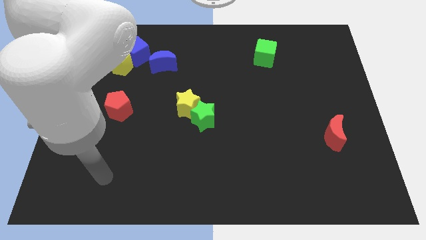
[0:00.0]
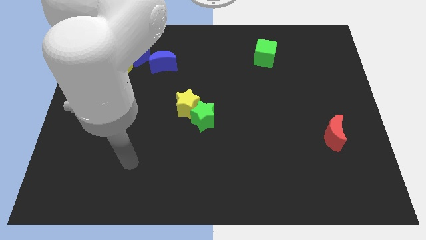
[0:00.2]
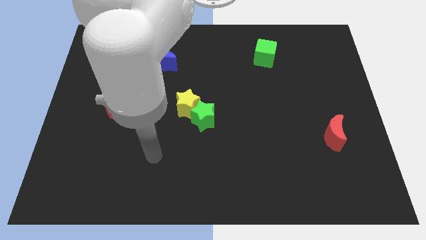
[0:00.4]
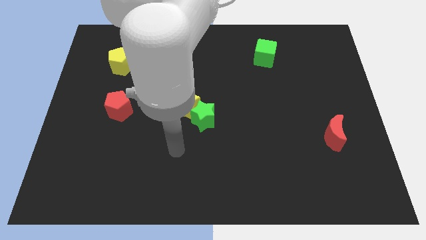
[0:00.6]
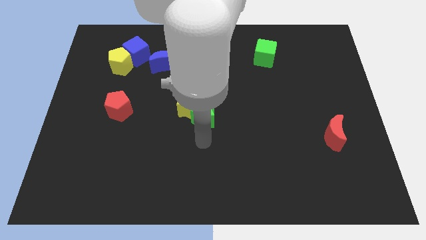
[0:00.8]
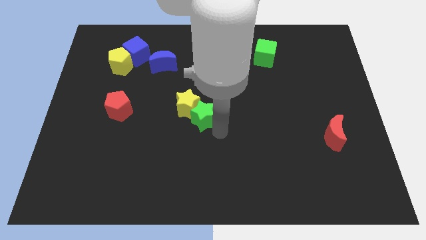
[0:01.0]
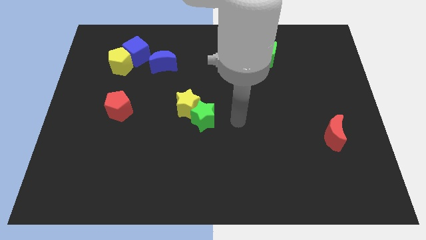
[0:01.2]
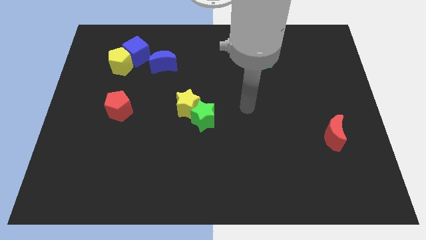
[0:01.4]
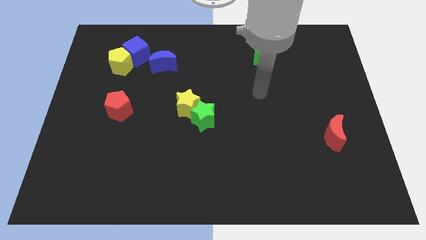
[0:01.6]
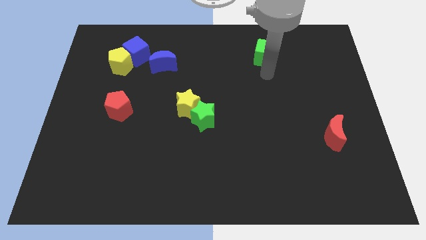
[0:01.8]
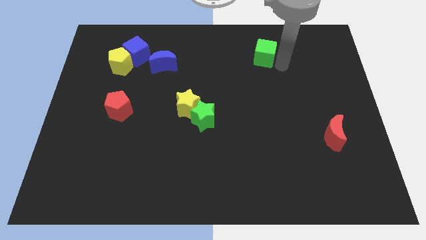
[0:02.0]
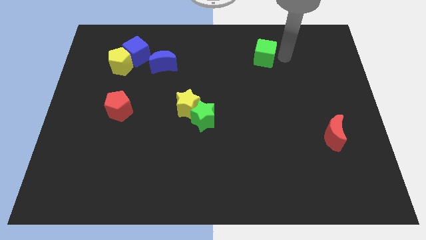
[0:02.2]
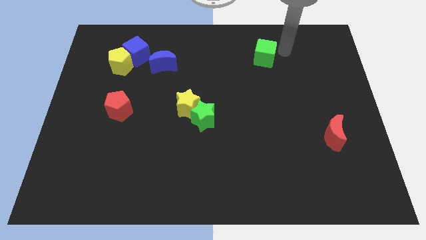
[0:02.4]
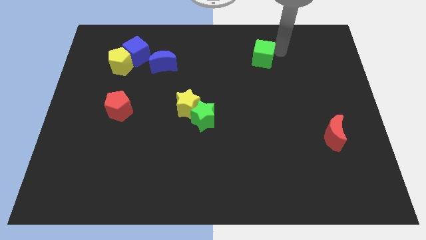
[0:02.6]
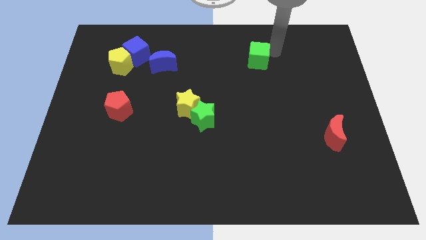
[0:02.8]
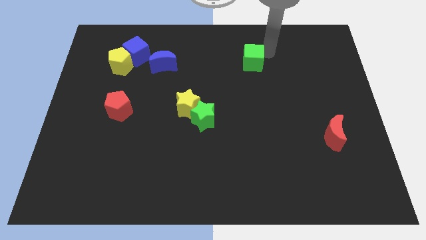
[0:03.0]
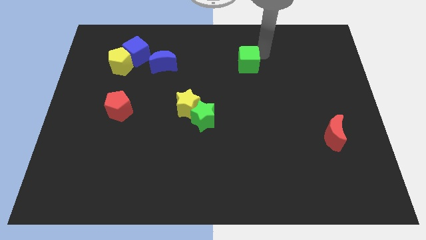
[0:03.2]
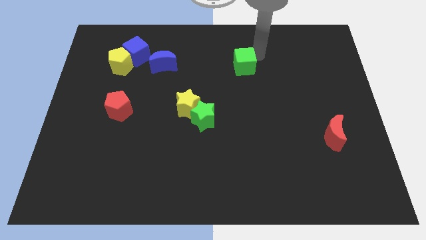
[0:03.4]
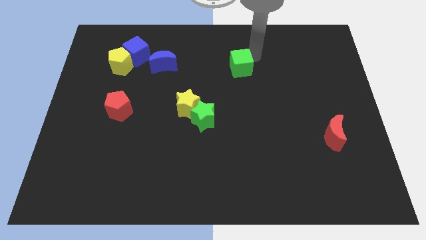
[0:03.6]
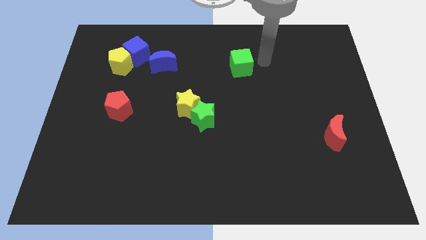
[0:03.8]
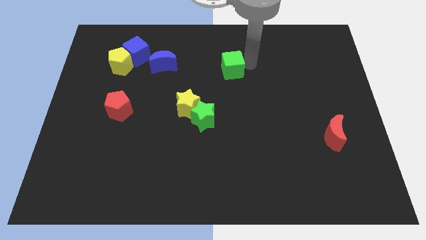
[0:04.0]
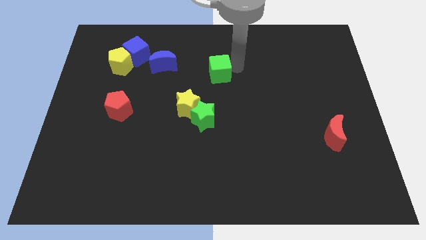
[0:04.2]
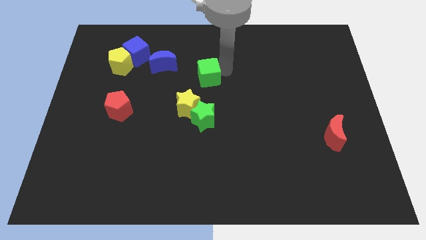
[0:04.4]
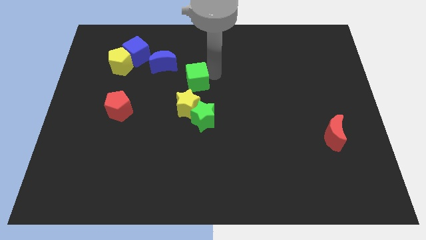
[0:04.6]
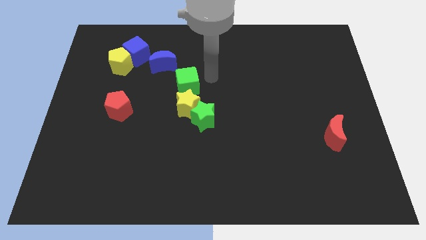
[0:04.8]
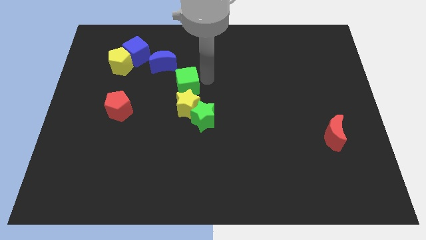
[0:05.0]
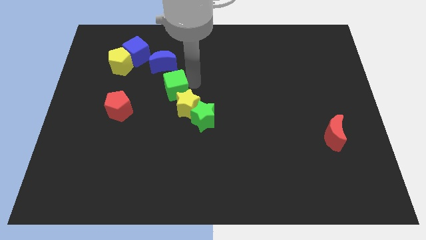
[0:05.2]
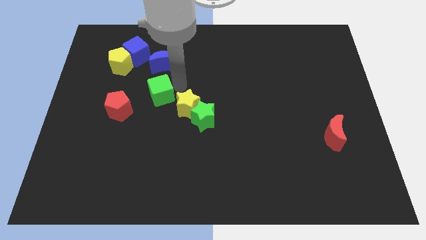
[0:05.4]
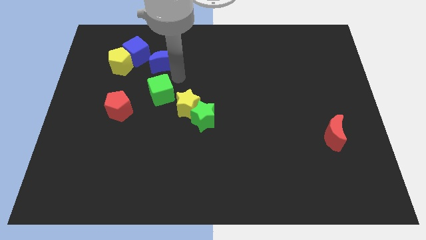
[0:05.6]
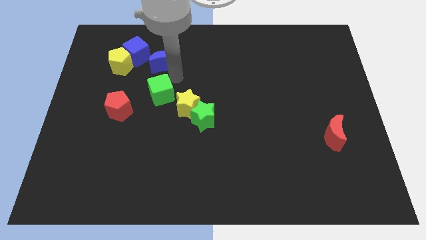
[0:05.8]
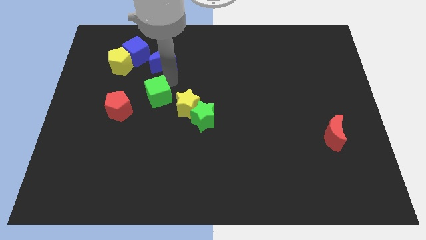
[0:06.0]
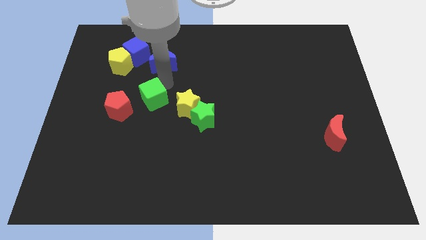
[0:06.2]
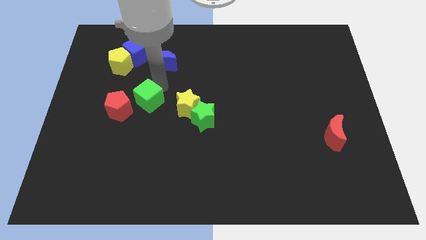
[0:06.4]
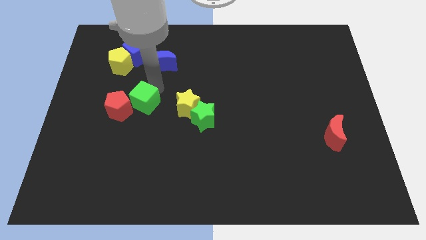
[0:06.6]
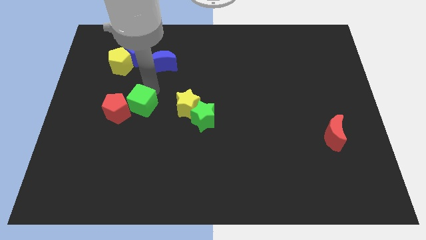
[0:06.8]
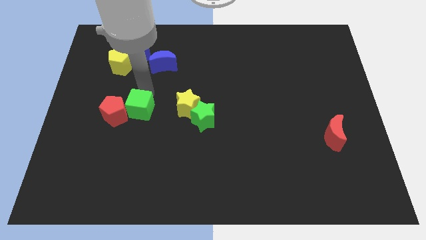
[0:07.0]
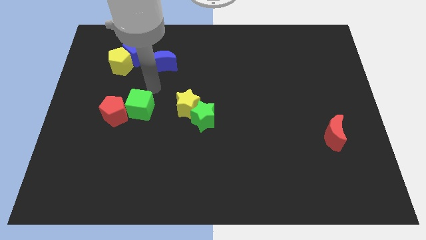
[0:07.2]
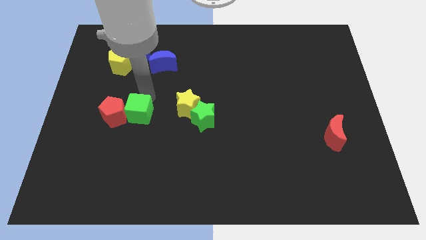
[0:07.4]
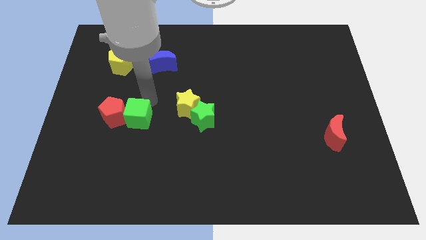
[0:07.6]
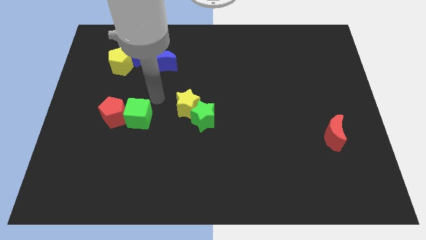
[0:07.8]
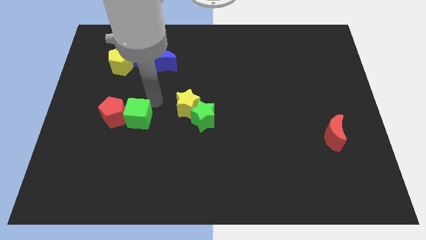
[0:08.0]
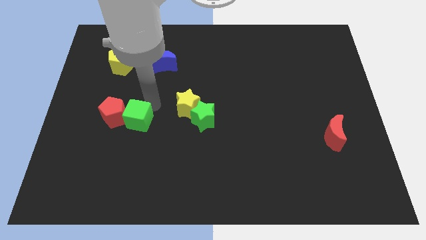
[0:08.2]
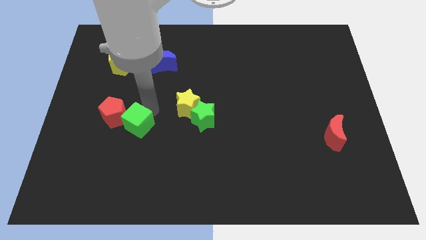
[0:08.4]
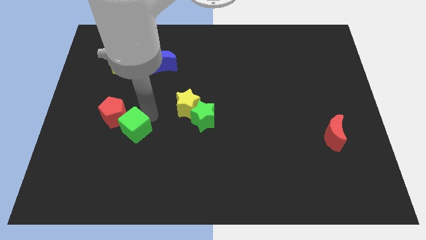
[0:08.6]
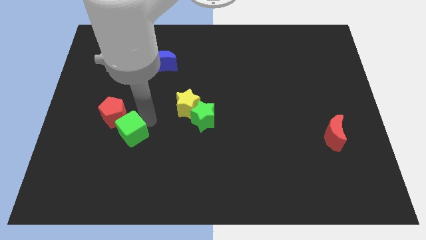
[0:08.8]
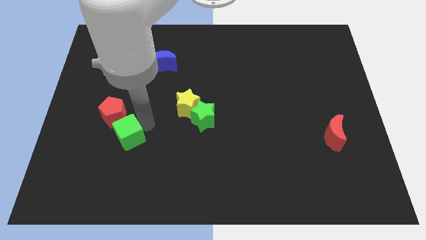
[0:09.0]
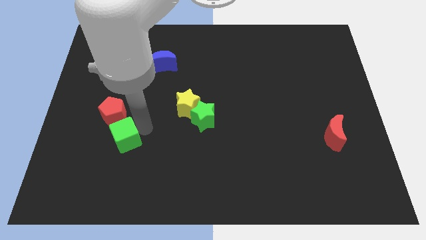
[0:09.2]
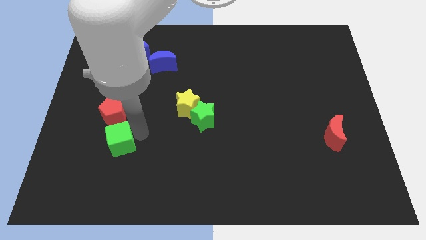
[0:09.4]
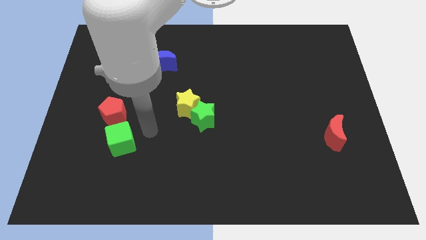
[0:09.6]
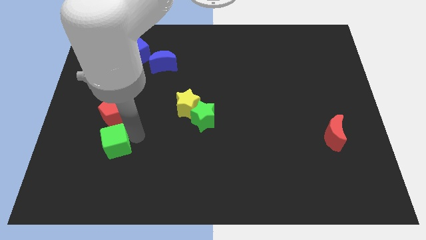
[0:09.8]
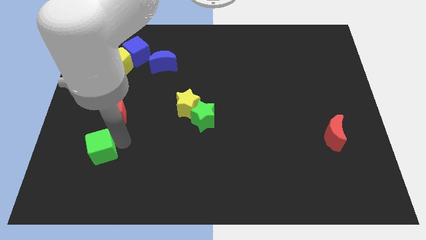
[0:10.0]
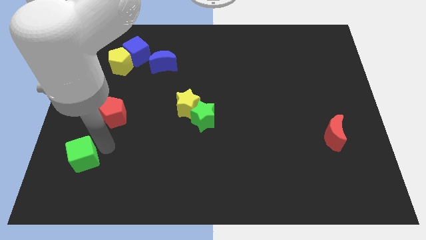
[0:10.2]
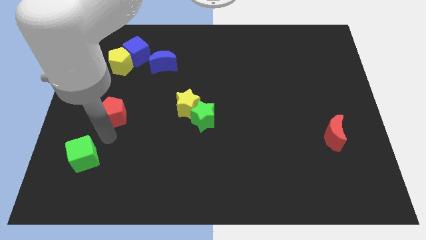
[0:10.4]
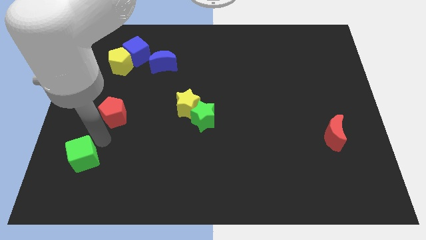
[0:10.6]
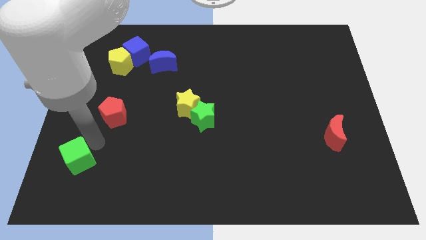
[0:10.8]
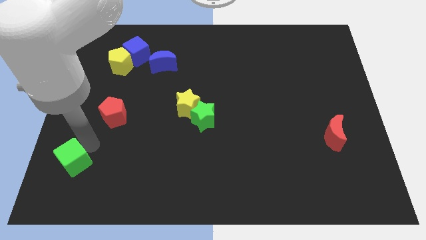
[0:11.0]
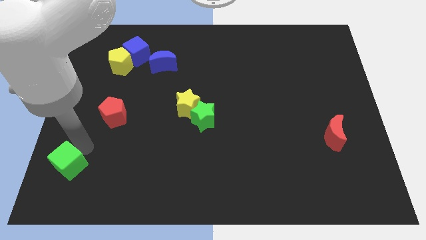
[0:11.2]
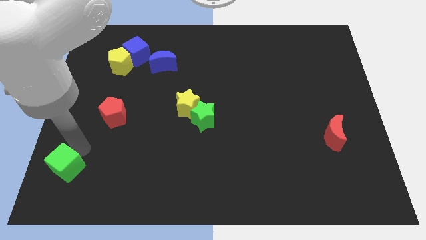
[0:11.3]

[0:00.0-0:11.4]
move the green cube to the bottom left
